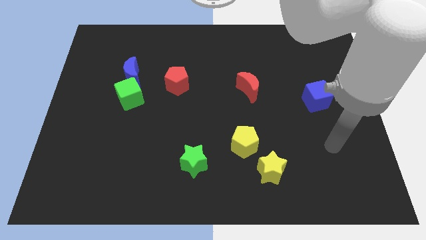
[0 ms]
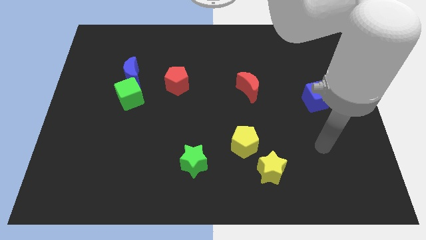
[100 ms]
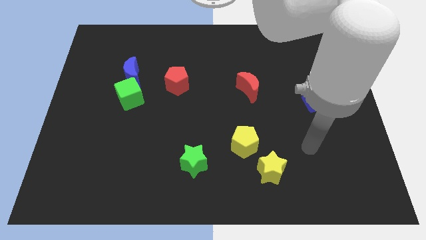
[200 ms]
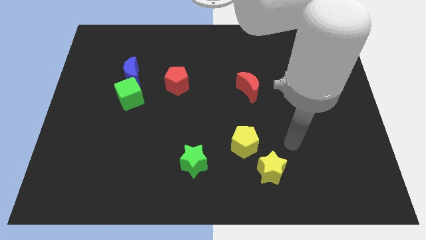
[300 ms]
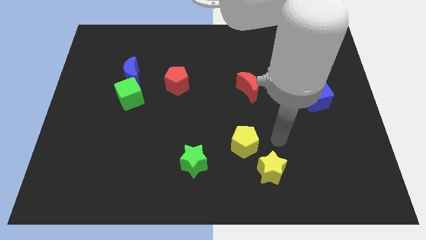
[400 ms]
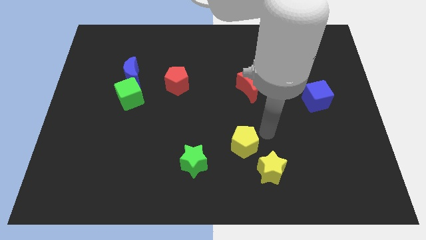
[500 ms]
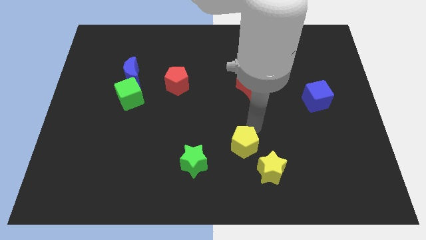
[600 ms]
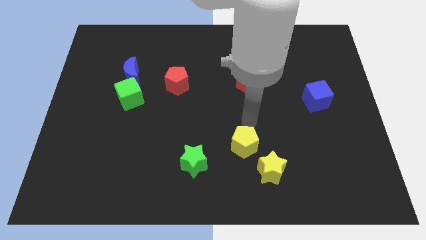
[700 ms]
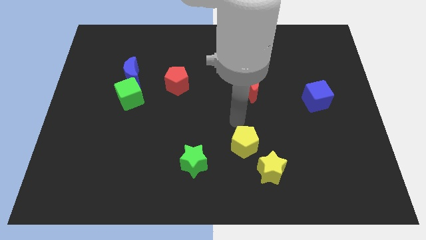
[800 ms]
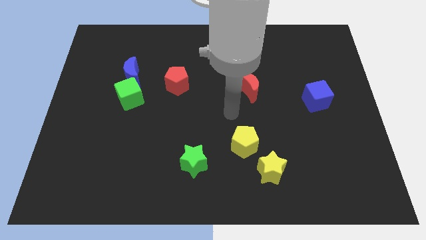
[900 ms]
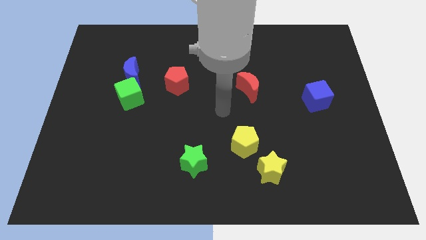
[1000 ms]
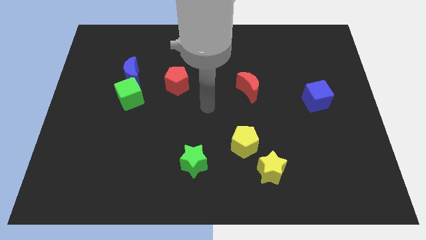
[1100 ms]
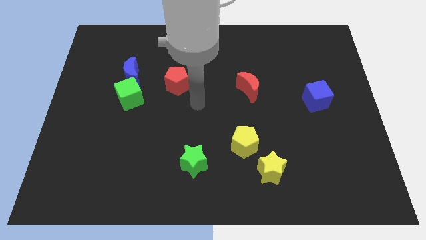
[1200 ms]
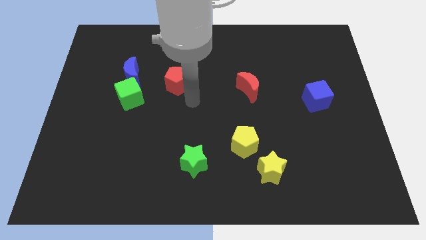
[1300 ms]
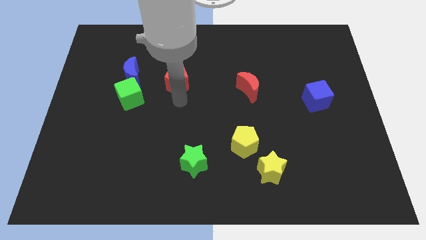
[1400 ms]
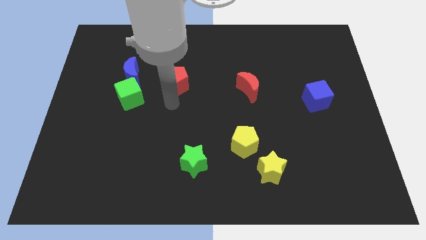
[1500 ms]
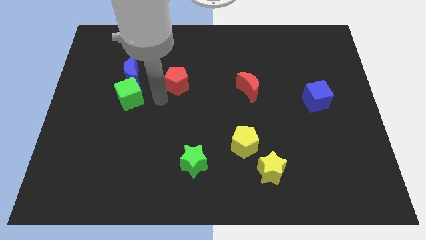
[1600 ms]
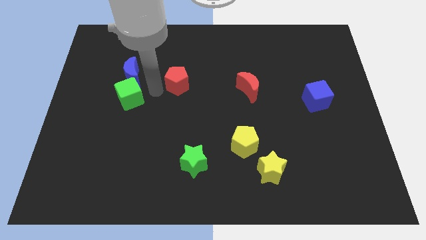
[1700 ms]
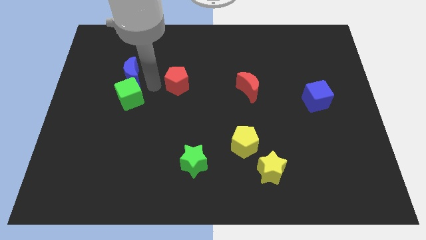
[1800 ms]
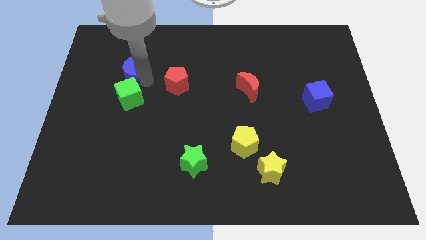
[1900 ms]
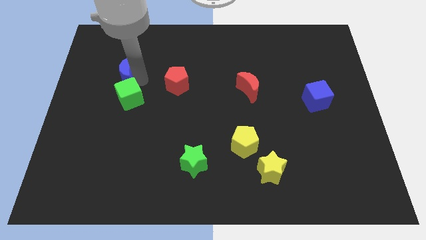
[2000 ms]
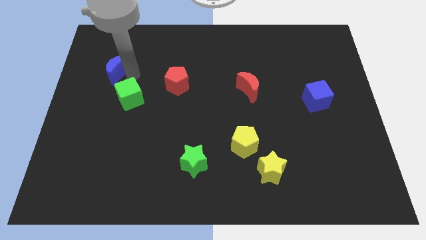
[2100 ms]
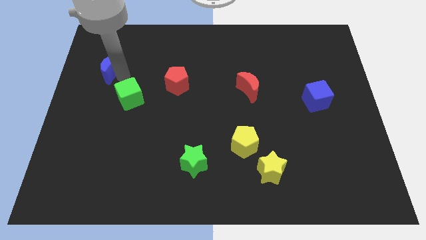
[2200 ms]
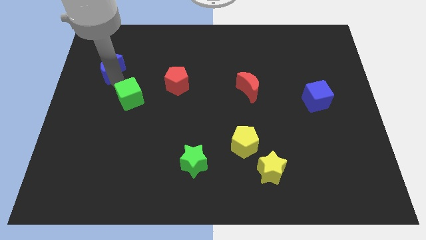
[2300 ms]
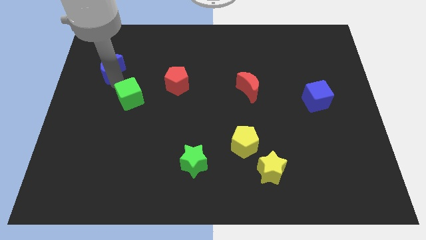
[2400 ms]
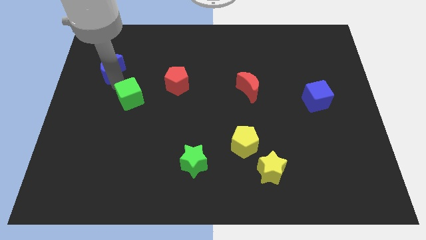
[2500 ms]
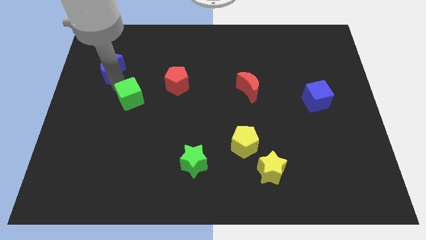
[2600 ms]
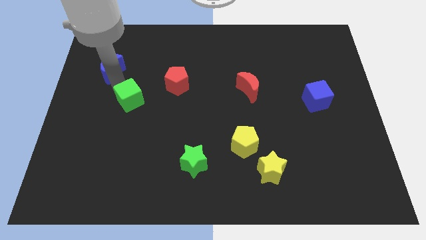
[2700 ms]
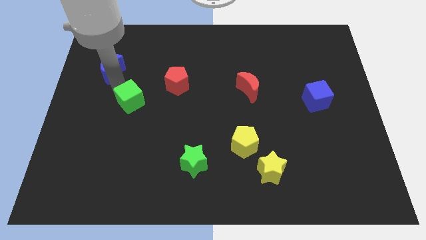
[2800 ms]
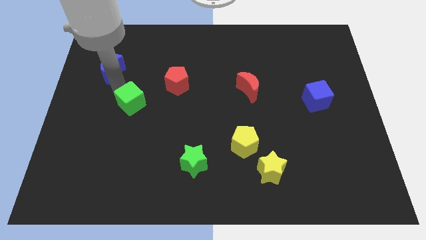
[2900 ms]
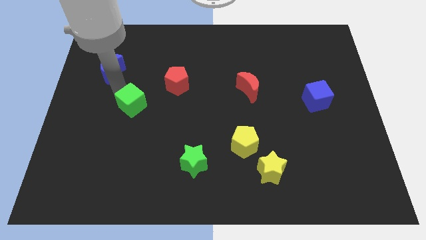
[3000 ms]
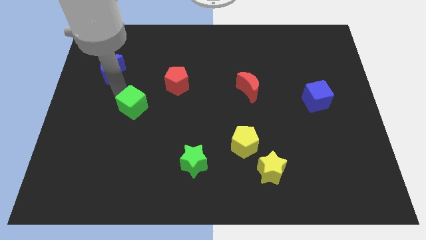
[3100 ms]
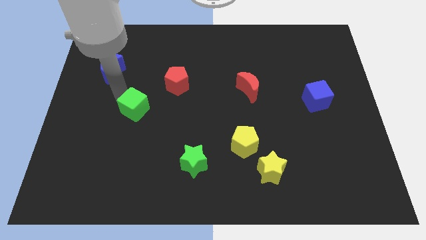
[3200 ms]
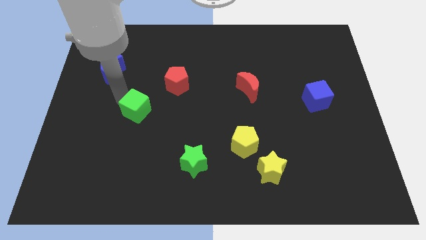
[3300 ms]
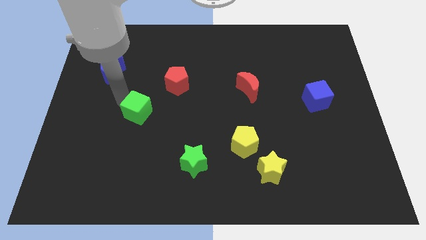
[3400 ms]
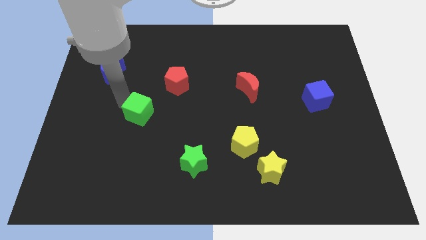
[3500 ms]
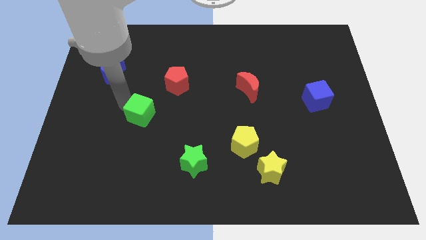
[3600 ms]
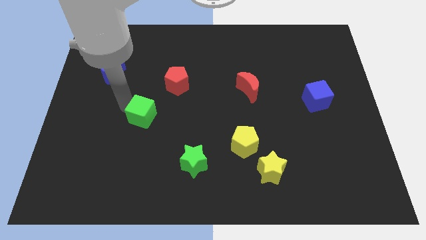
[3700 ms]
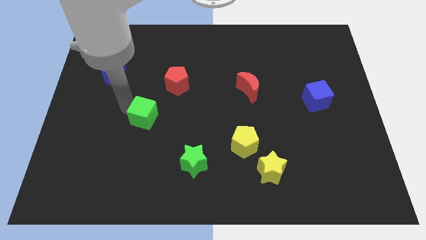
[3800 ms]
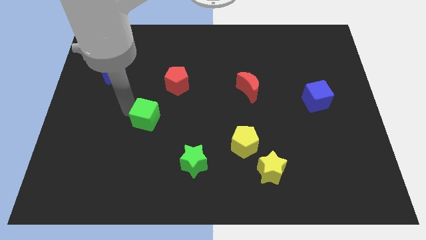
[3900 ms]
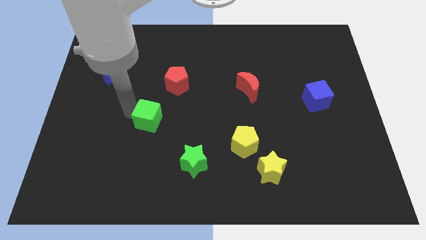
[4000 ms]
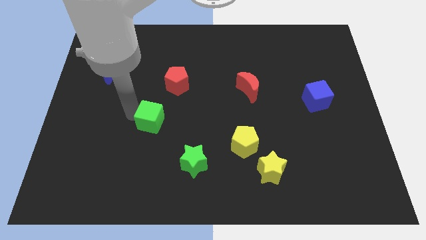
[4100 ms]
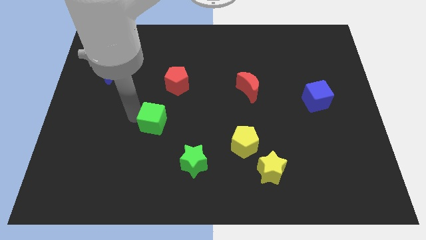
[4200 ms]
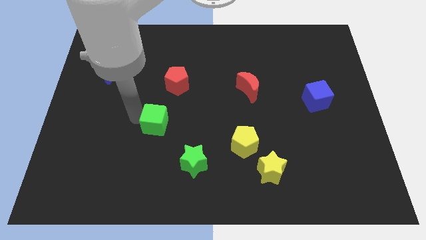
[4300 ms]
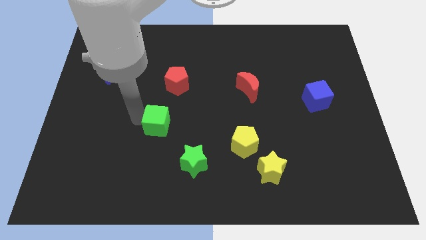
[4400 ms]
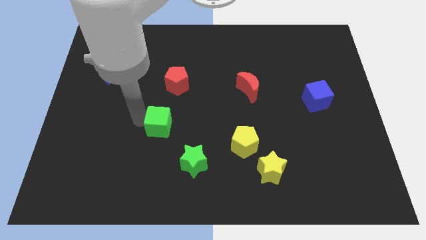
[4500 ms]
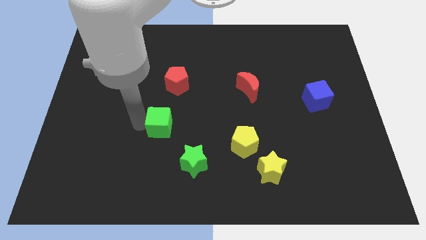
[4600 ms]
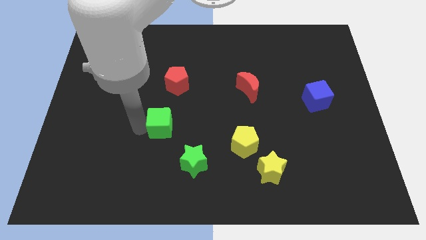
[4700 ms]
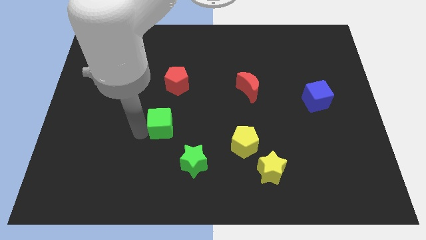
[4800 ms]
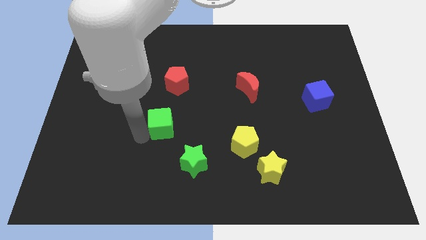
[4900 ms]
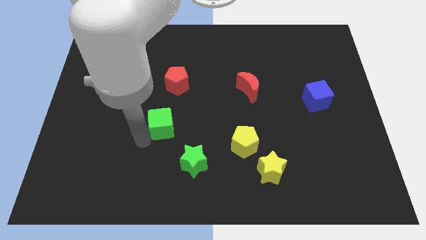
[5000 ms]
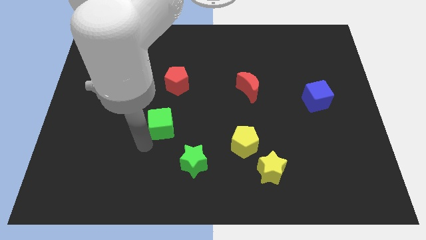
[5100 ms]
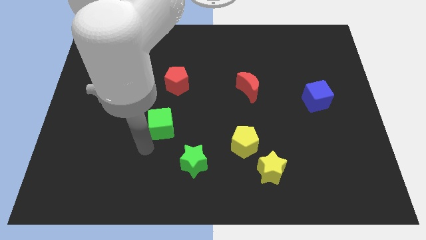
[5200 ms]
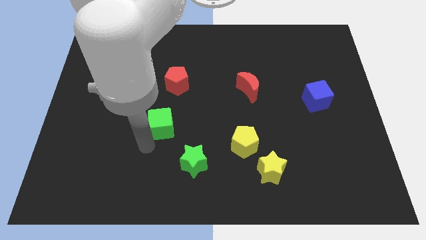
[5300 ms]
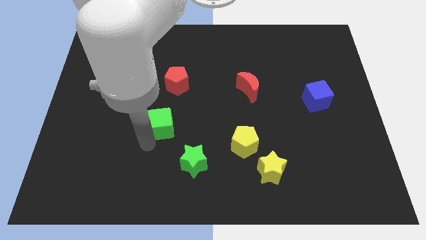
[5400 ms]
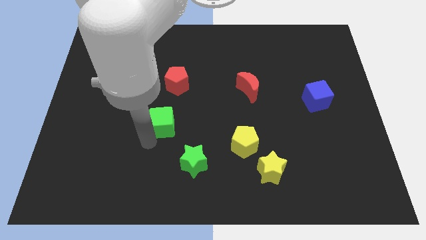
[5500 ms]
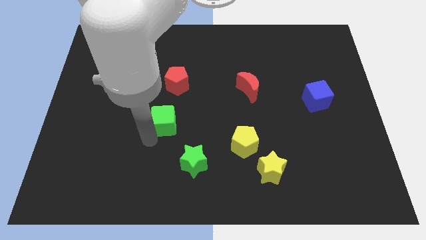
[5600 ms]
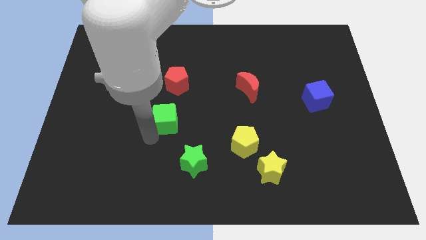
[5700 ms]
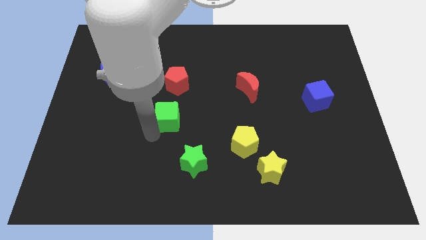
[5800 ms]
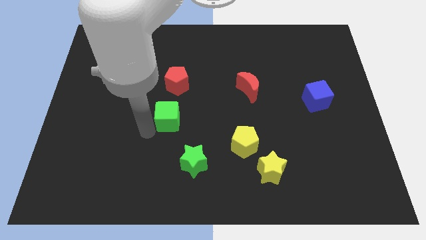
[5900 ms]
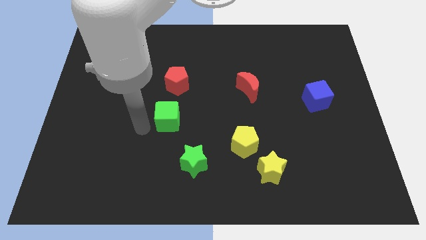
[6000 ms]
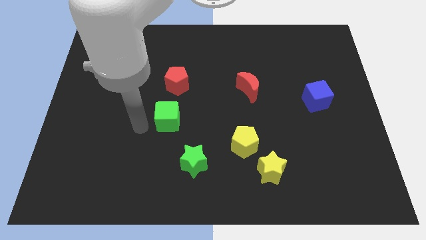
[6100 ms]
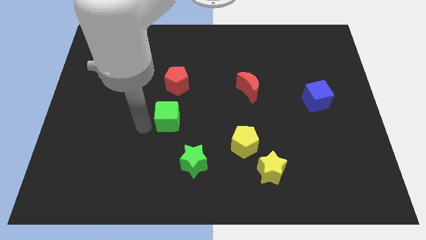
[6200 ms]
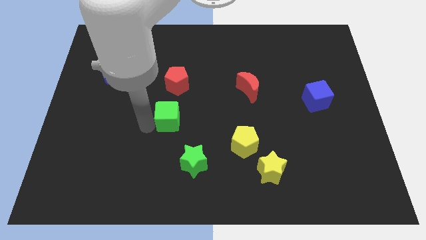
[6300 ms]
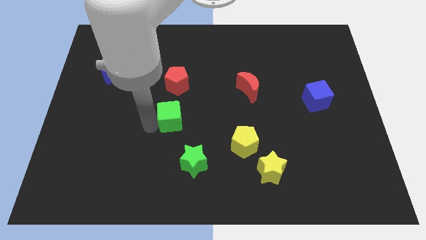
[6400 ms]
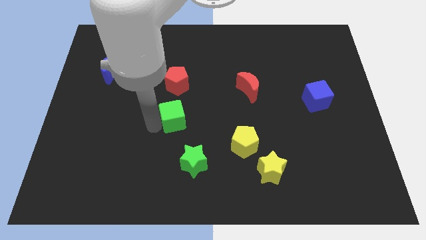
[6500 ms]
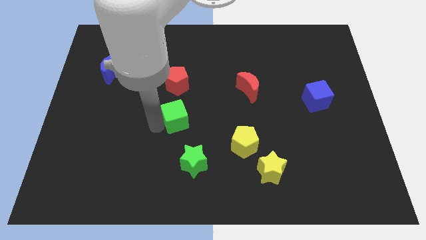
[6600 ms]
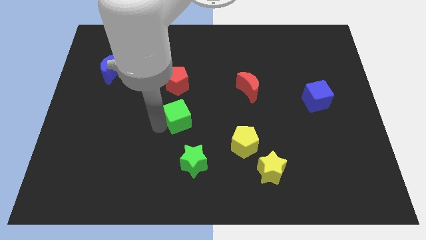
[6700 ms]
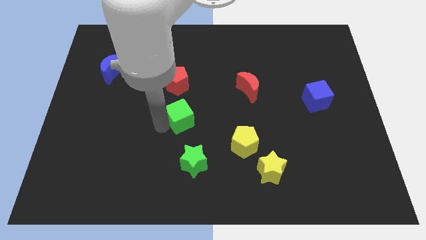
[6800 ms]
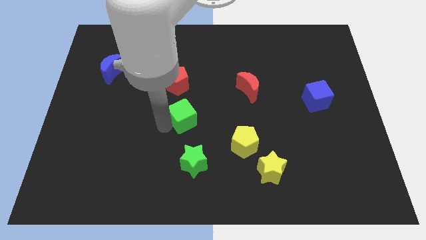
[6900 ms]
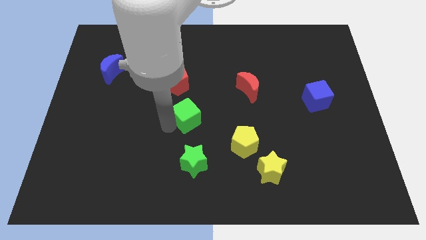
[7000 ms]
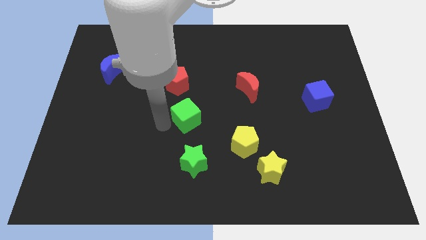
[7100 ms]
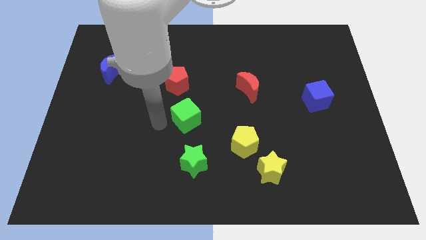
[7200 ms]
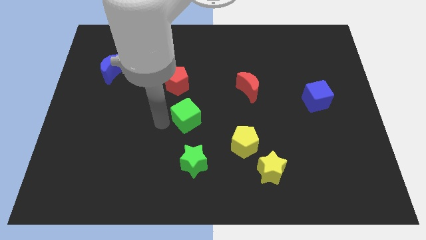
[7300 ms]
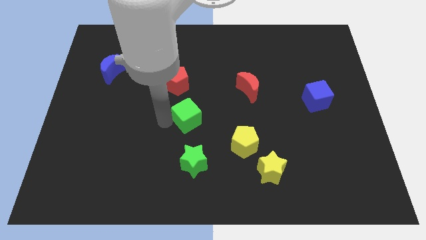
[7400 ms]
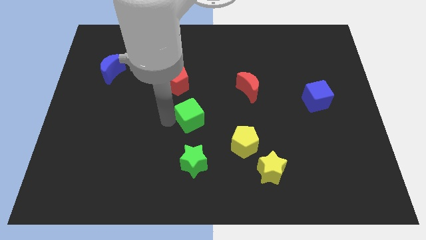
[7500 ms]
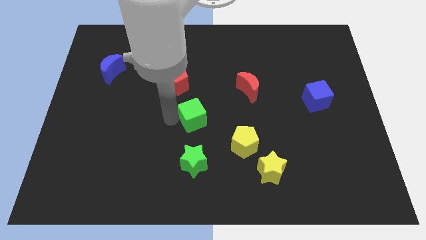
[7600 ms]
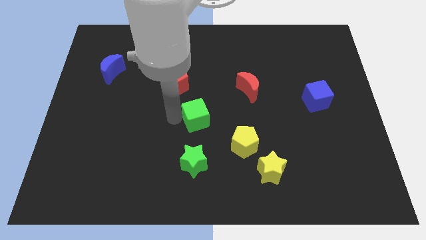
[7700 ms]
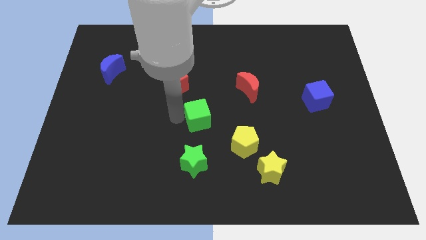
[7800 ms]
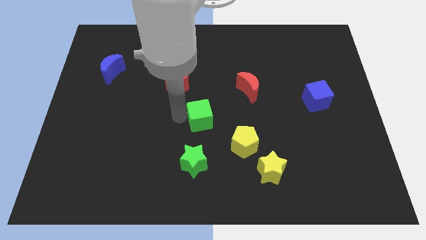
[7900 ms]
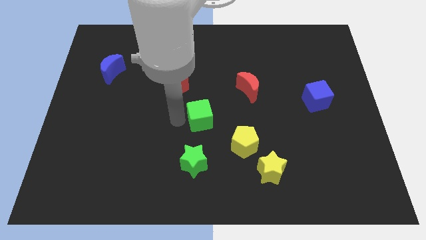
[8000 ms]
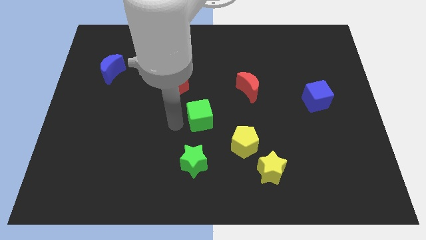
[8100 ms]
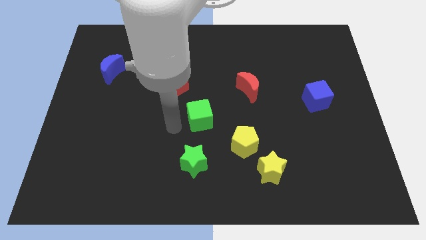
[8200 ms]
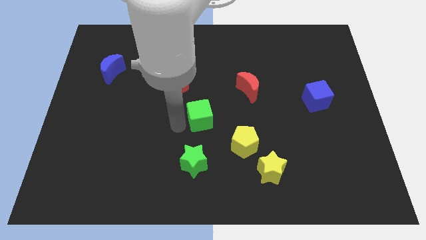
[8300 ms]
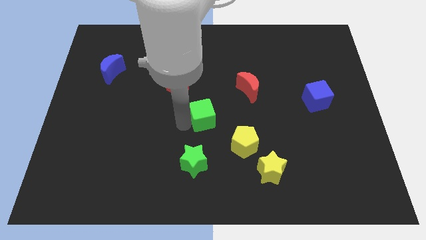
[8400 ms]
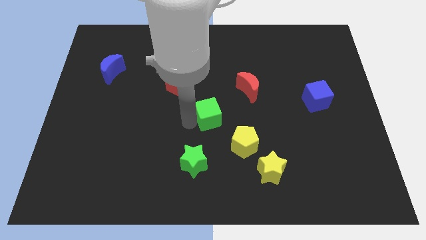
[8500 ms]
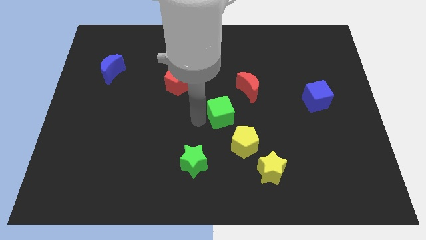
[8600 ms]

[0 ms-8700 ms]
push the green cube to the top side of the yellow pentagon
